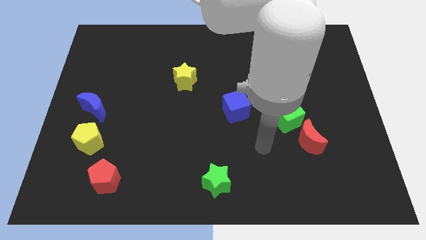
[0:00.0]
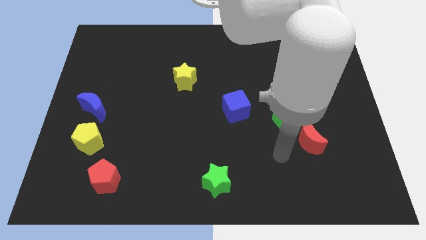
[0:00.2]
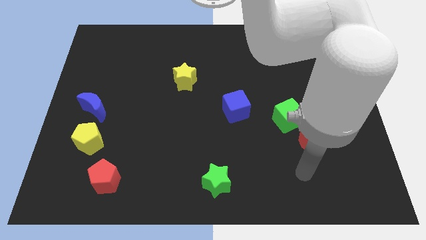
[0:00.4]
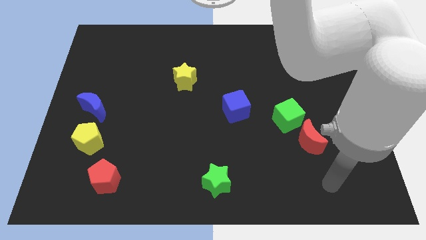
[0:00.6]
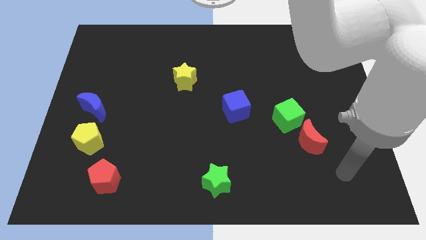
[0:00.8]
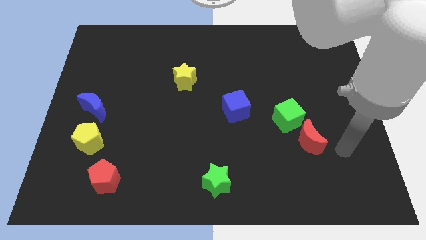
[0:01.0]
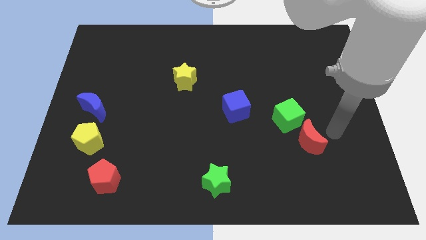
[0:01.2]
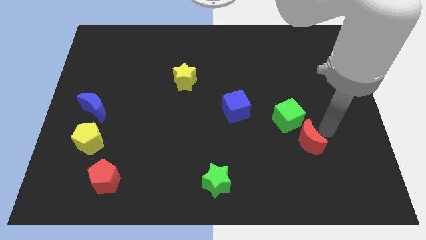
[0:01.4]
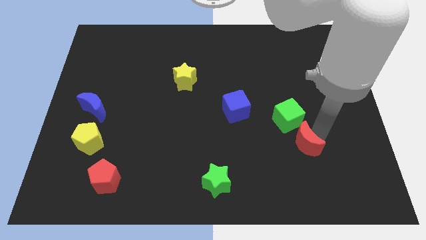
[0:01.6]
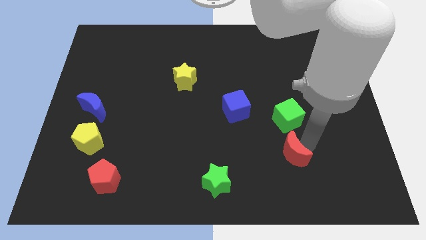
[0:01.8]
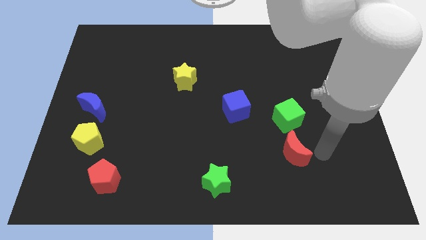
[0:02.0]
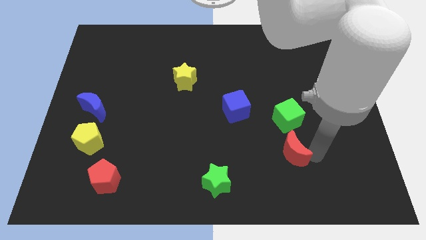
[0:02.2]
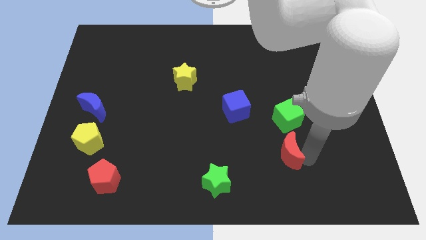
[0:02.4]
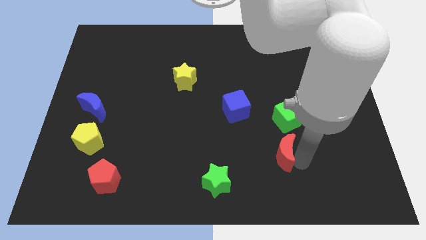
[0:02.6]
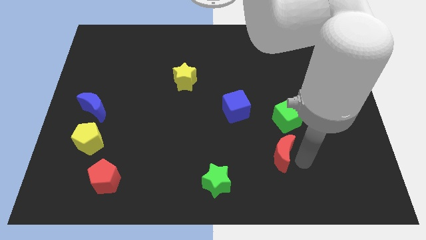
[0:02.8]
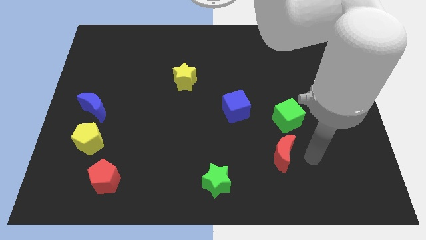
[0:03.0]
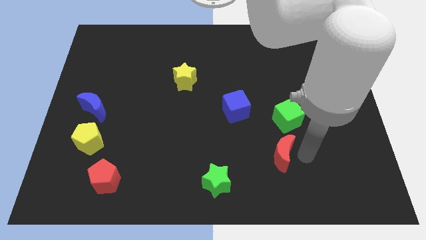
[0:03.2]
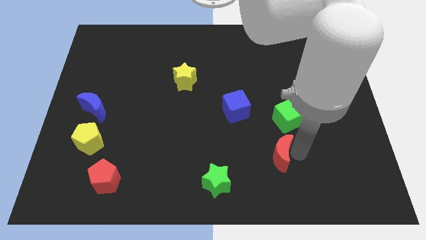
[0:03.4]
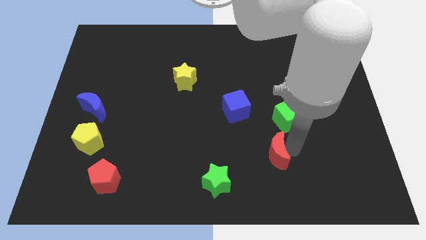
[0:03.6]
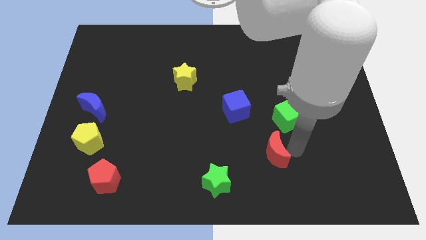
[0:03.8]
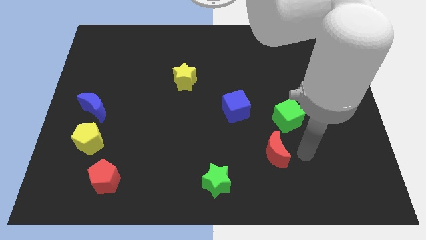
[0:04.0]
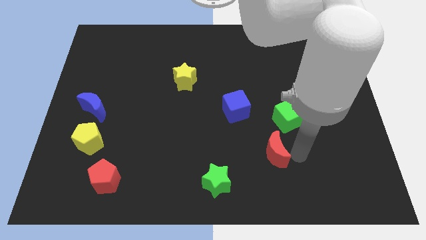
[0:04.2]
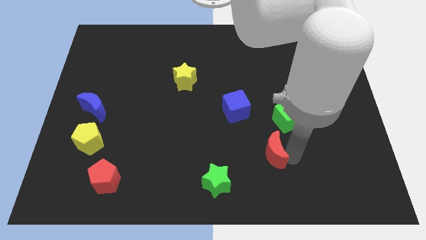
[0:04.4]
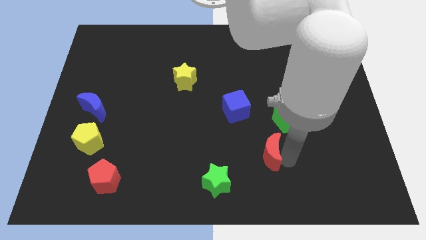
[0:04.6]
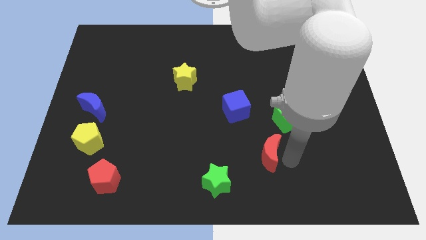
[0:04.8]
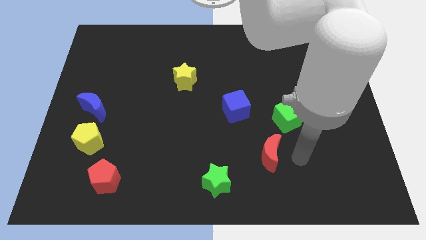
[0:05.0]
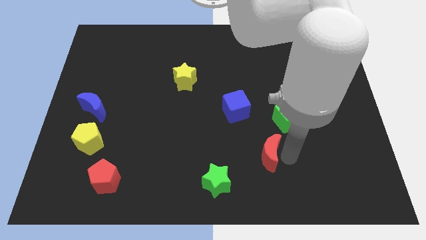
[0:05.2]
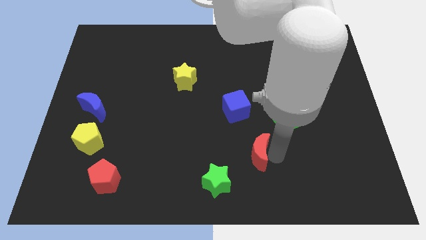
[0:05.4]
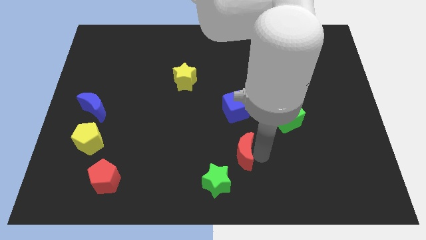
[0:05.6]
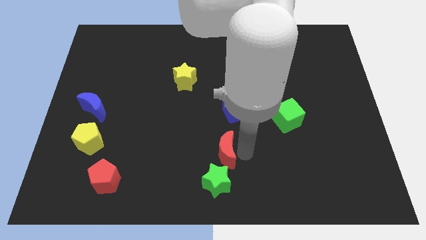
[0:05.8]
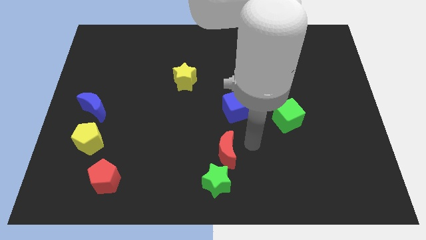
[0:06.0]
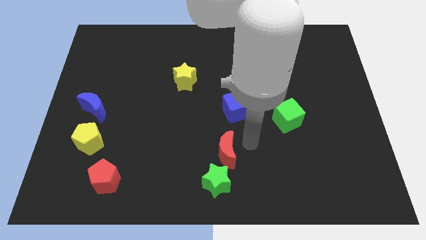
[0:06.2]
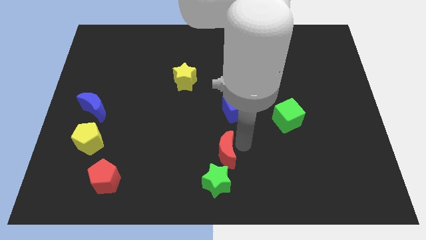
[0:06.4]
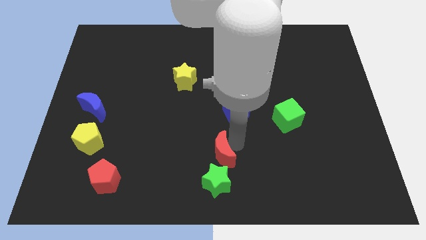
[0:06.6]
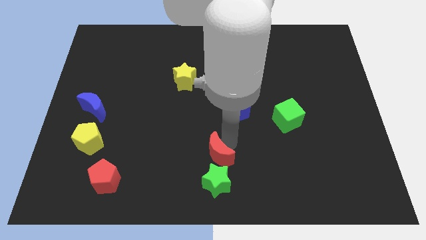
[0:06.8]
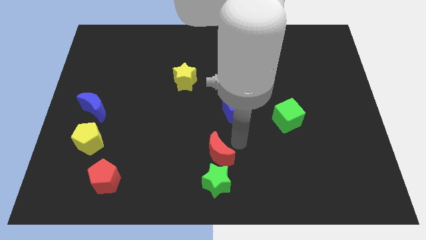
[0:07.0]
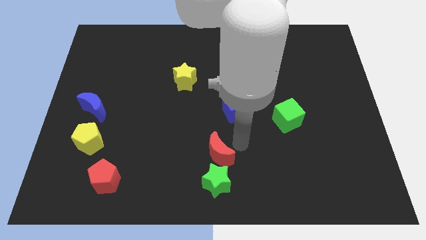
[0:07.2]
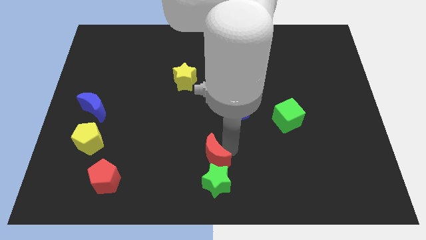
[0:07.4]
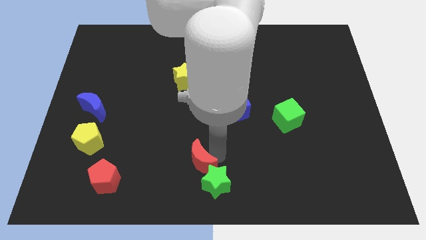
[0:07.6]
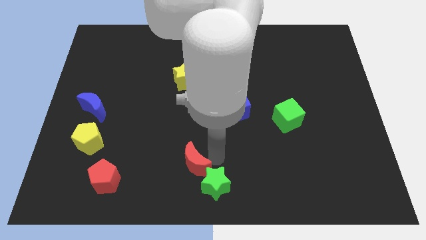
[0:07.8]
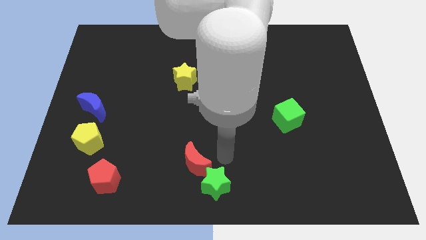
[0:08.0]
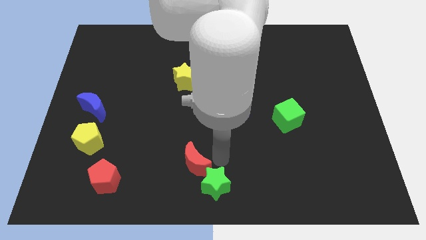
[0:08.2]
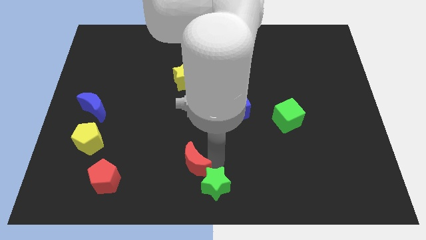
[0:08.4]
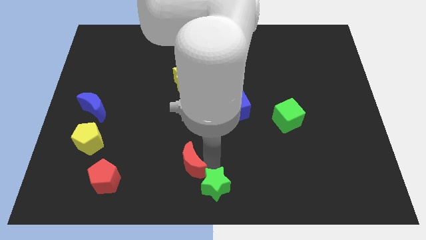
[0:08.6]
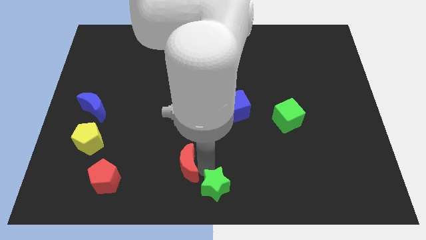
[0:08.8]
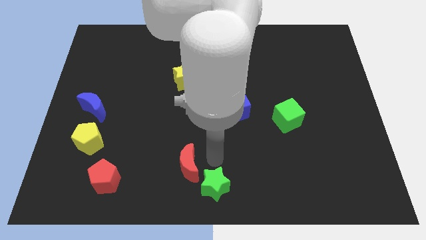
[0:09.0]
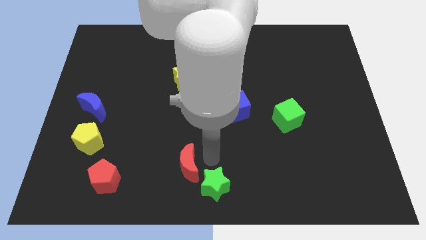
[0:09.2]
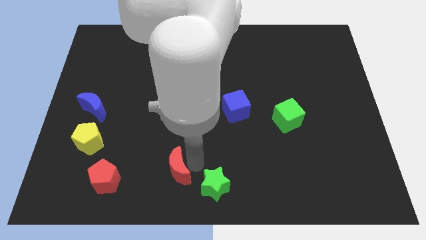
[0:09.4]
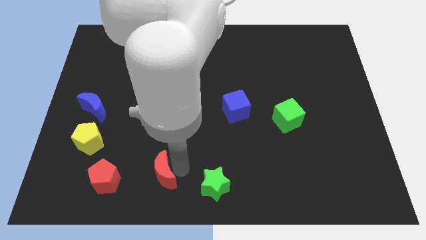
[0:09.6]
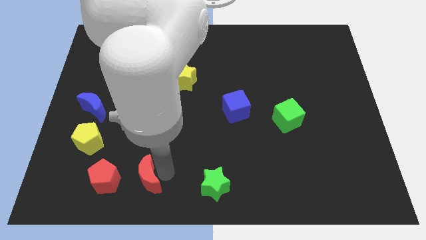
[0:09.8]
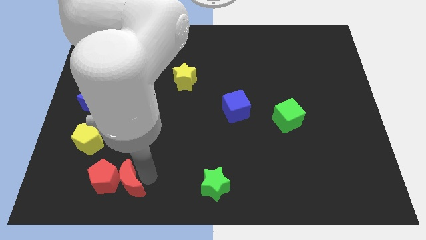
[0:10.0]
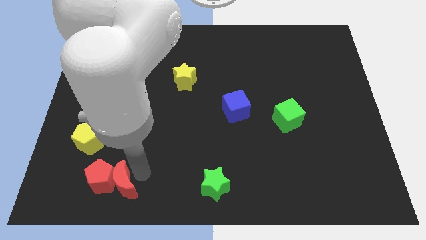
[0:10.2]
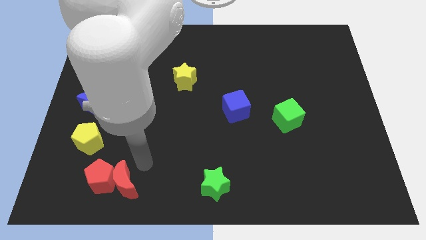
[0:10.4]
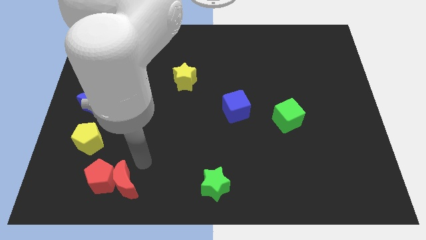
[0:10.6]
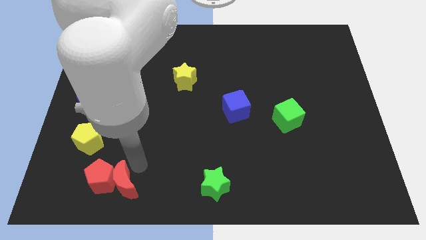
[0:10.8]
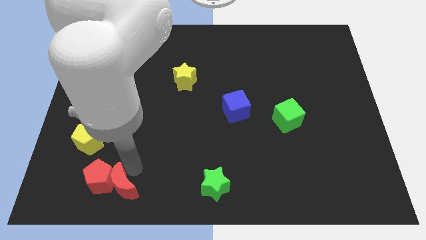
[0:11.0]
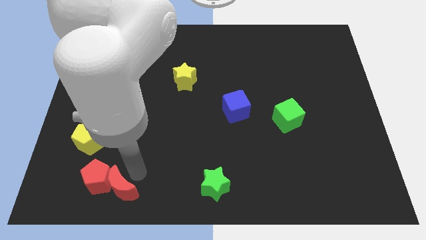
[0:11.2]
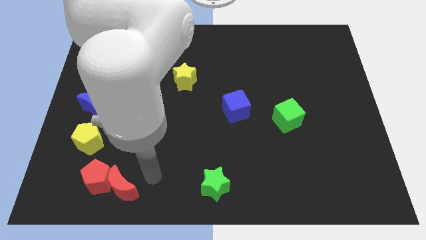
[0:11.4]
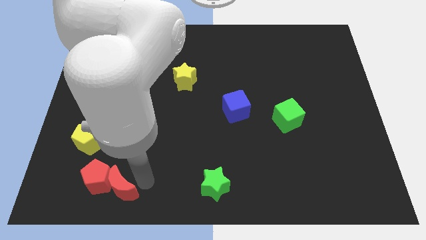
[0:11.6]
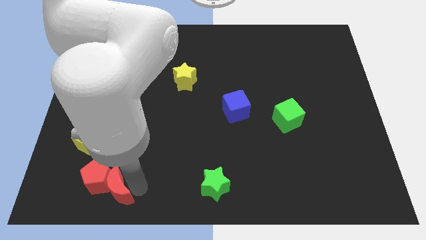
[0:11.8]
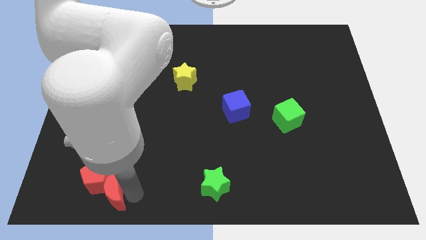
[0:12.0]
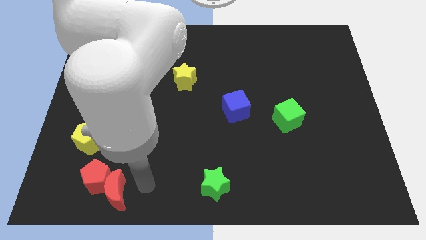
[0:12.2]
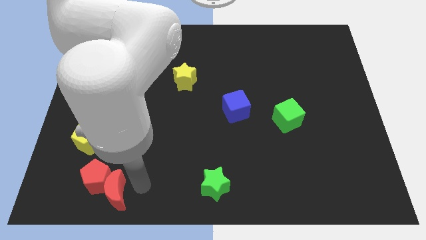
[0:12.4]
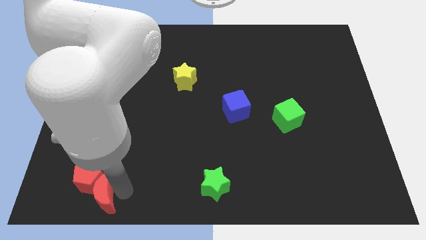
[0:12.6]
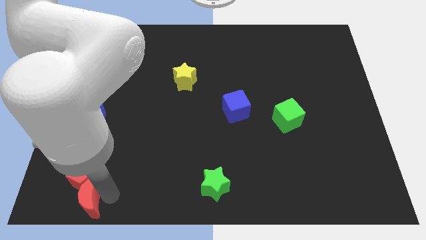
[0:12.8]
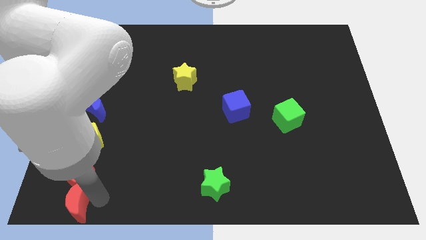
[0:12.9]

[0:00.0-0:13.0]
put the red moon to the bottom left

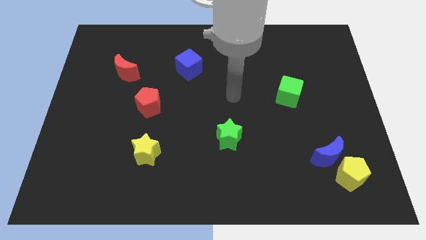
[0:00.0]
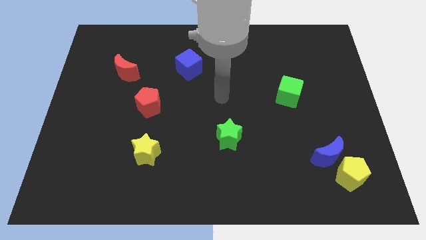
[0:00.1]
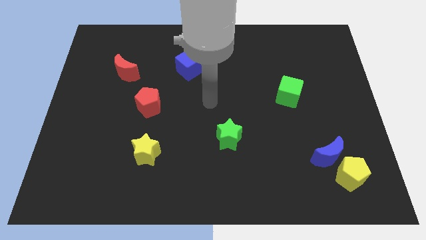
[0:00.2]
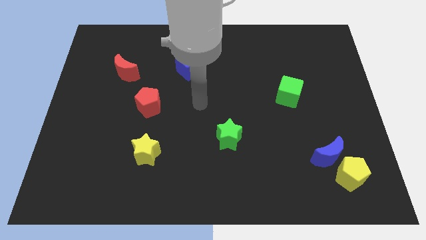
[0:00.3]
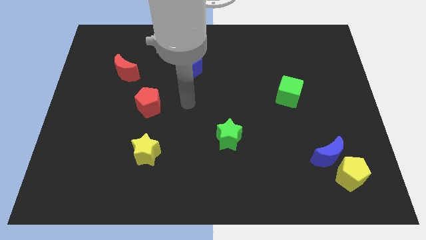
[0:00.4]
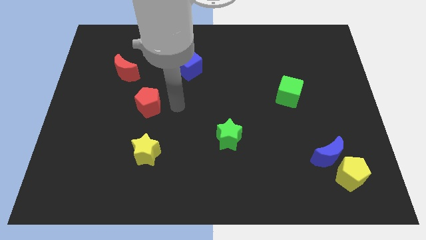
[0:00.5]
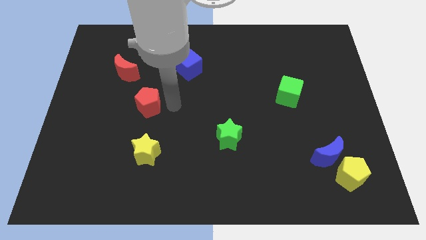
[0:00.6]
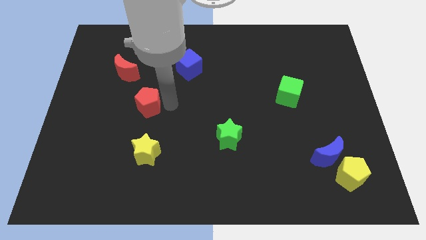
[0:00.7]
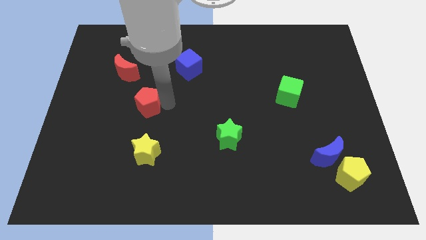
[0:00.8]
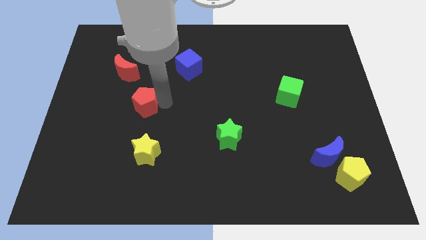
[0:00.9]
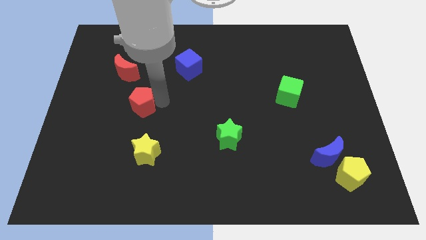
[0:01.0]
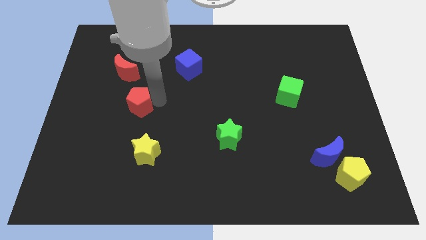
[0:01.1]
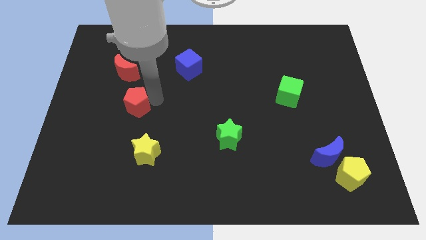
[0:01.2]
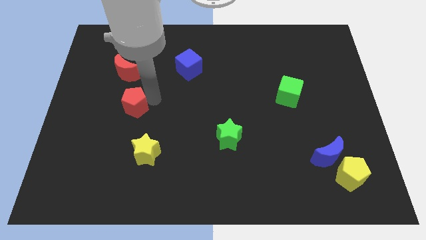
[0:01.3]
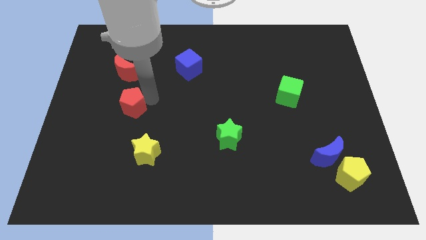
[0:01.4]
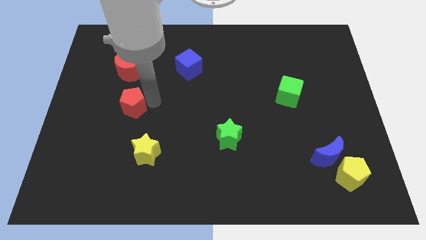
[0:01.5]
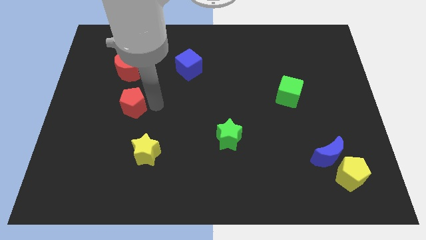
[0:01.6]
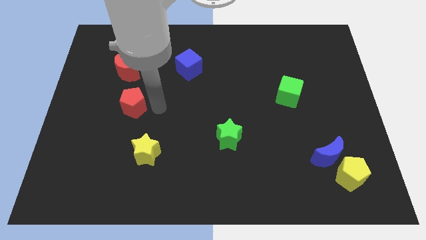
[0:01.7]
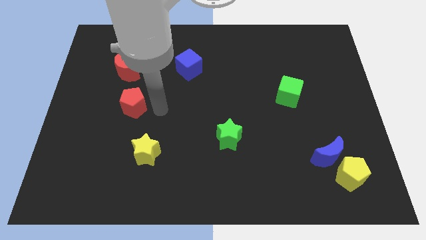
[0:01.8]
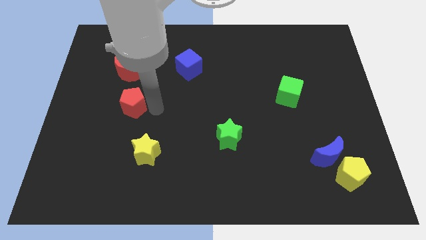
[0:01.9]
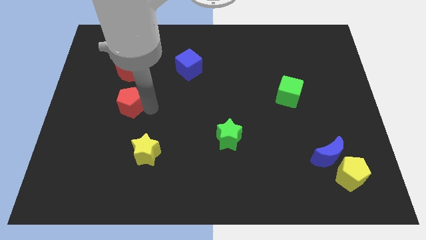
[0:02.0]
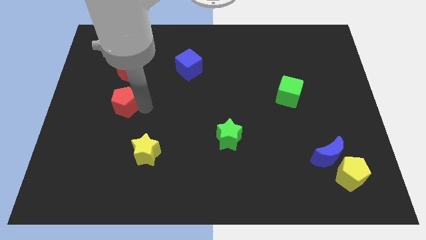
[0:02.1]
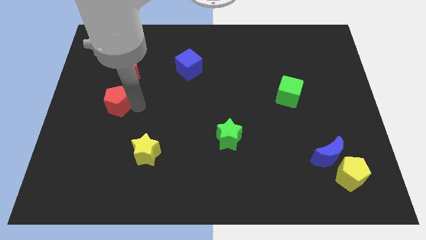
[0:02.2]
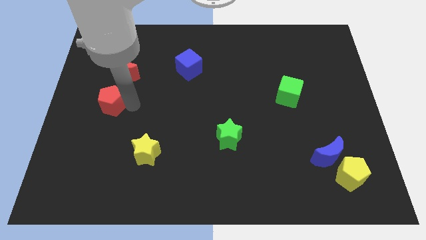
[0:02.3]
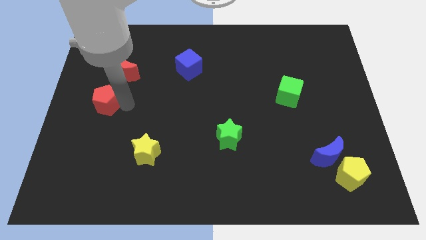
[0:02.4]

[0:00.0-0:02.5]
move the red pentagon to the center left
